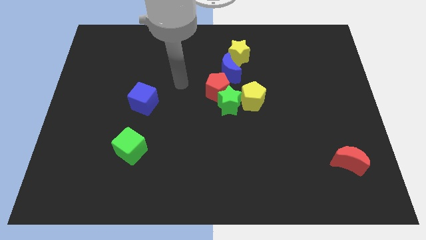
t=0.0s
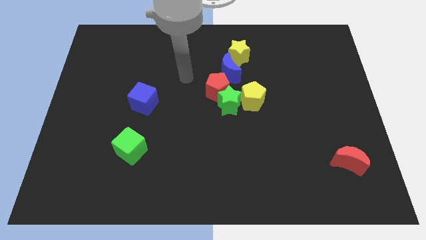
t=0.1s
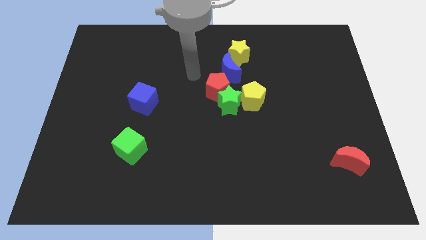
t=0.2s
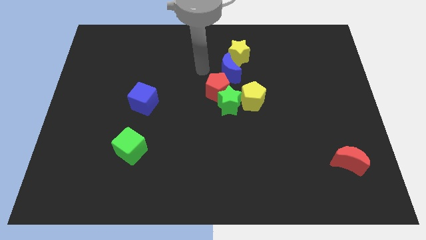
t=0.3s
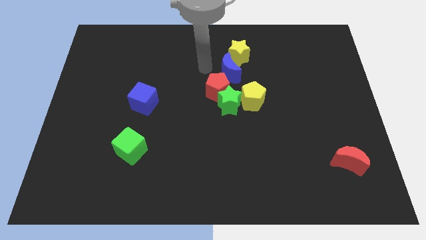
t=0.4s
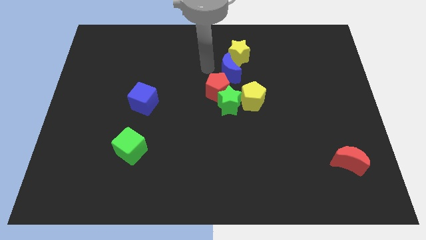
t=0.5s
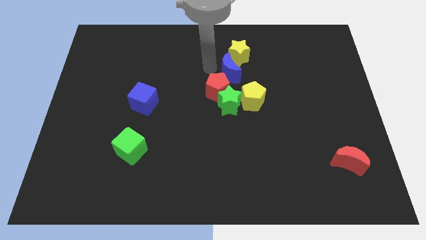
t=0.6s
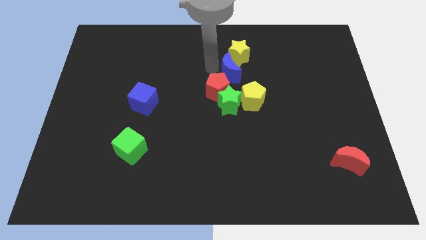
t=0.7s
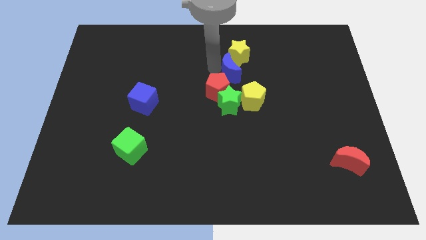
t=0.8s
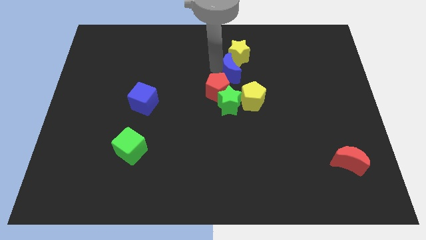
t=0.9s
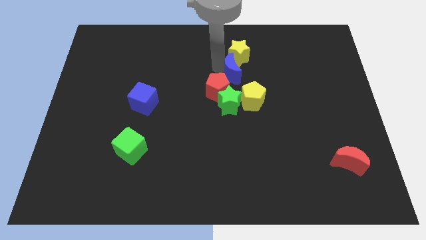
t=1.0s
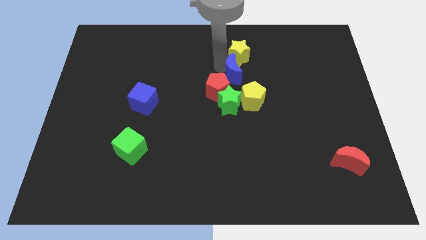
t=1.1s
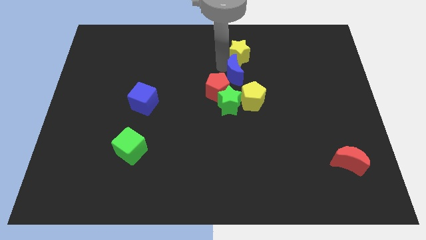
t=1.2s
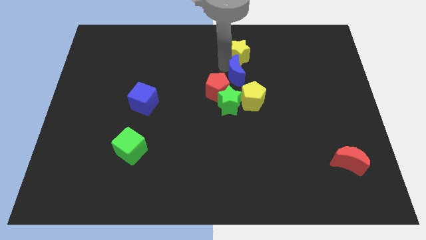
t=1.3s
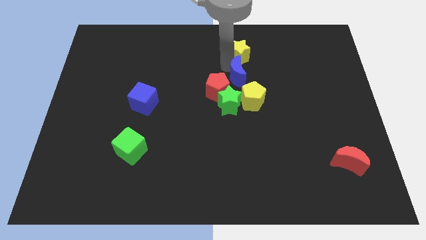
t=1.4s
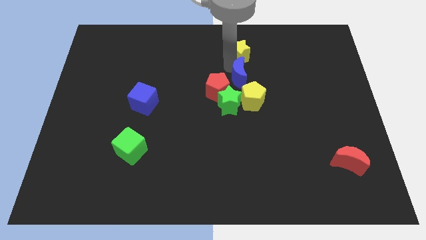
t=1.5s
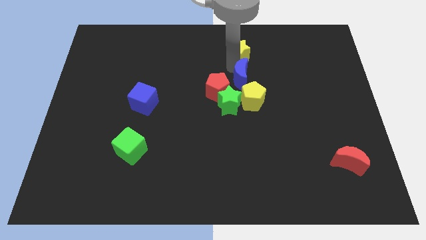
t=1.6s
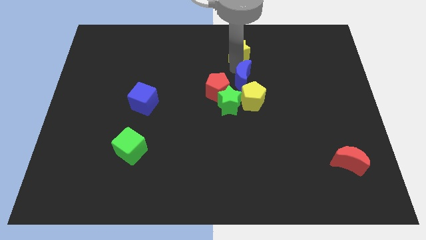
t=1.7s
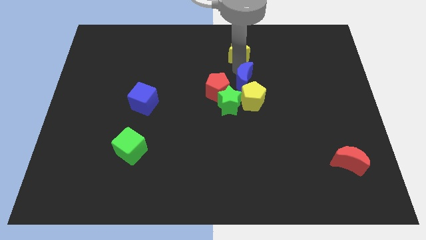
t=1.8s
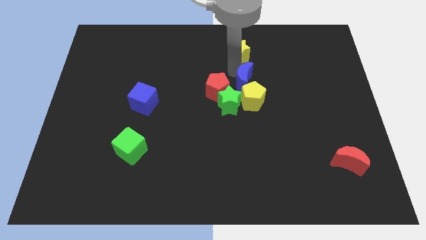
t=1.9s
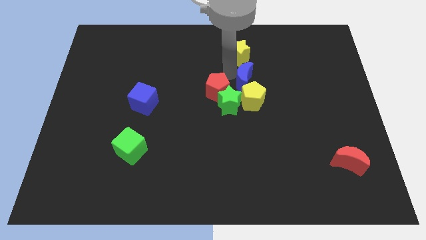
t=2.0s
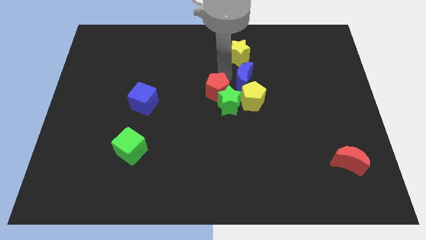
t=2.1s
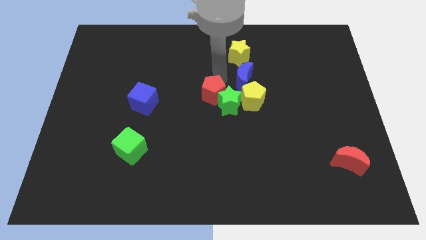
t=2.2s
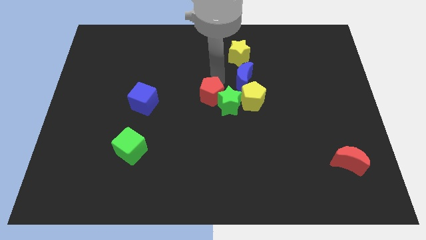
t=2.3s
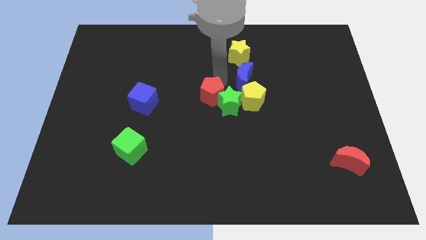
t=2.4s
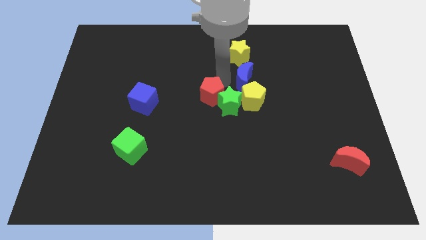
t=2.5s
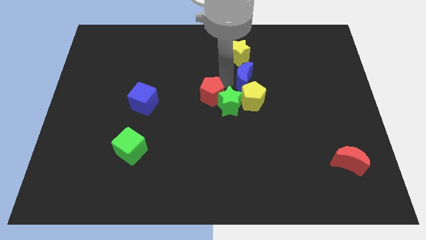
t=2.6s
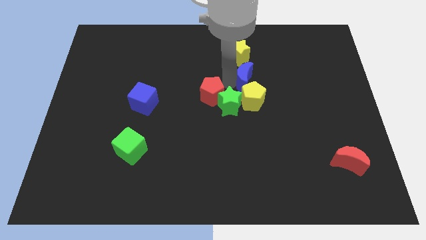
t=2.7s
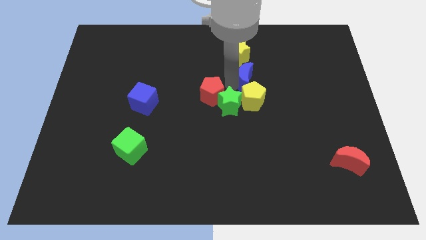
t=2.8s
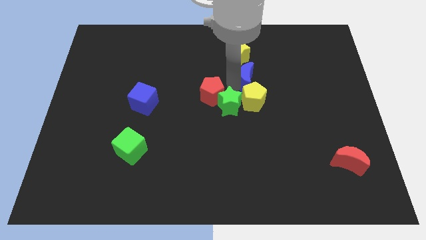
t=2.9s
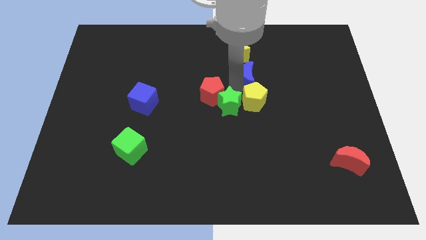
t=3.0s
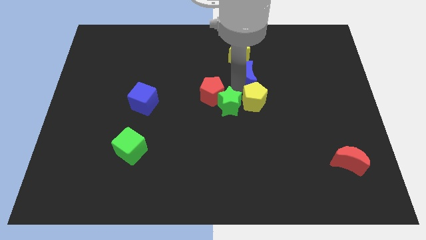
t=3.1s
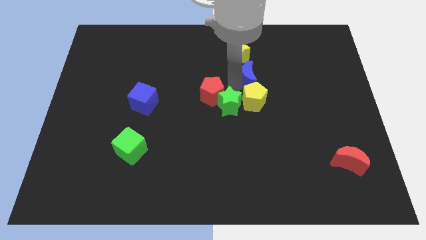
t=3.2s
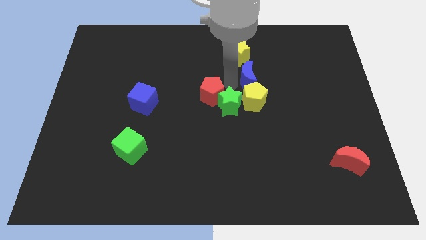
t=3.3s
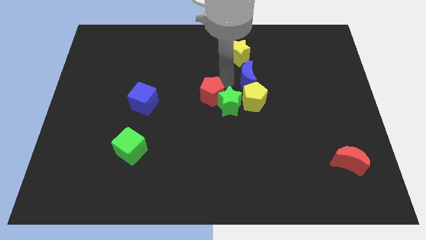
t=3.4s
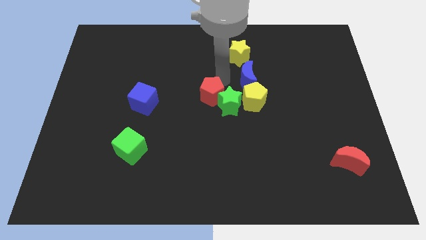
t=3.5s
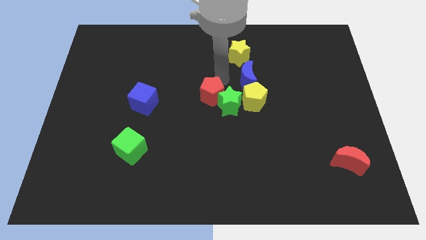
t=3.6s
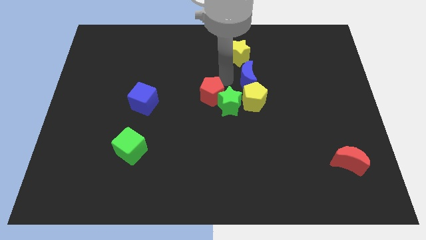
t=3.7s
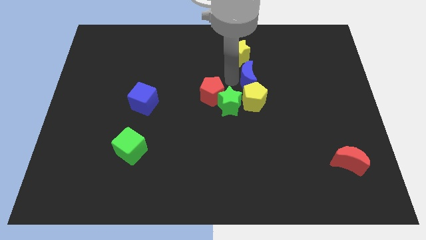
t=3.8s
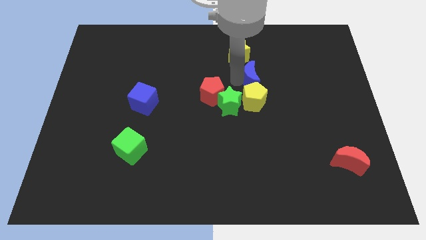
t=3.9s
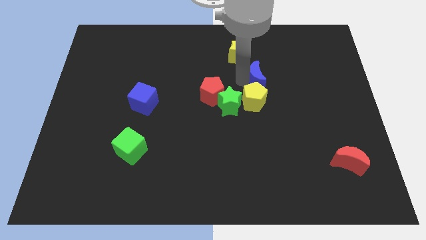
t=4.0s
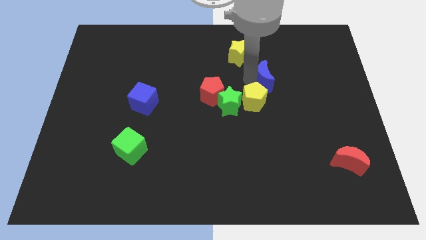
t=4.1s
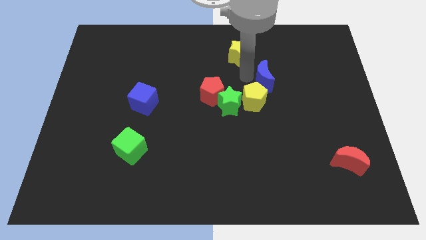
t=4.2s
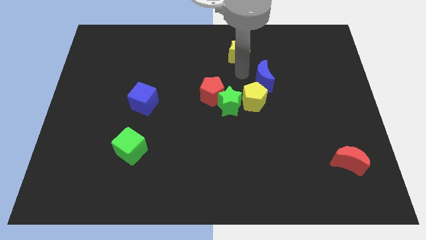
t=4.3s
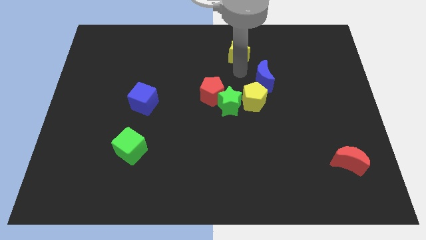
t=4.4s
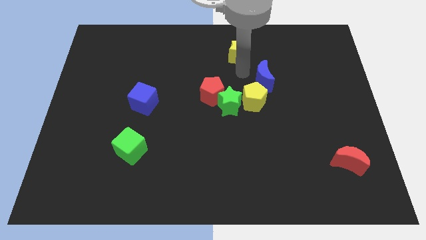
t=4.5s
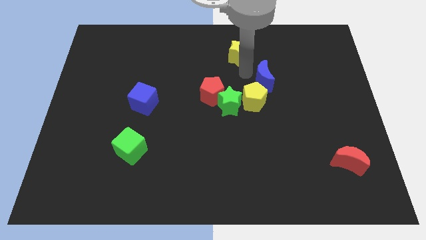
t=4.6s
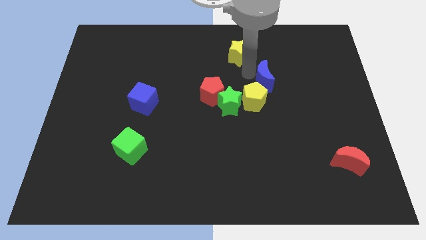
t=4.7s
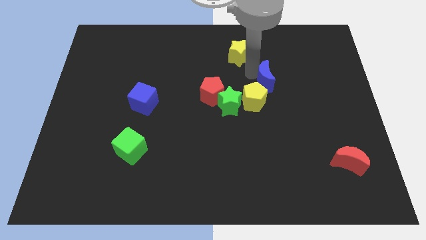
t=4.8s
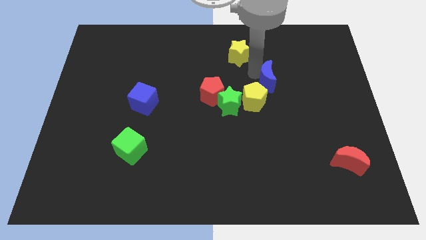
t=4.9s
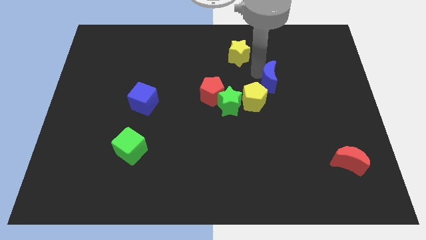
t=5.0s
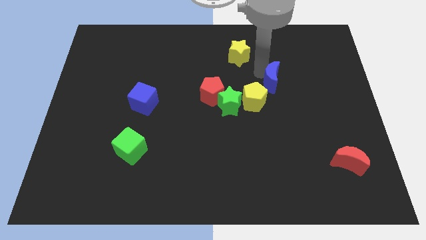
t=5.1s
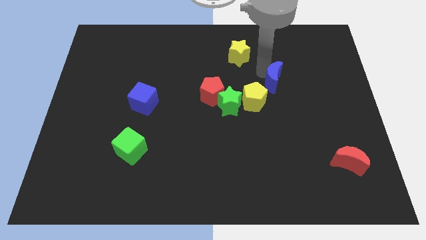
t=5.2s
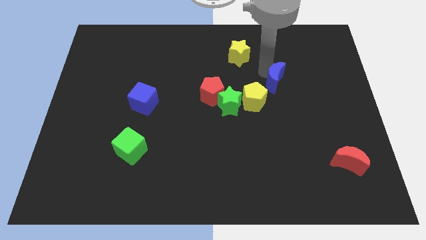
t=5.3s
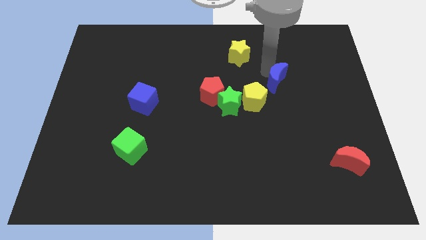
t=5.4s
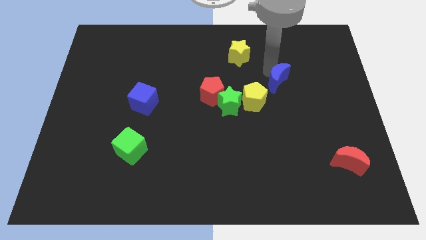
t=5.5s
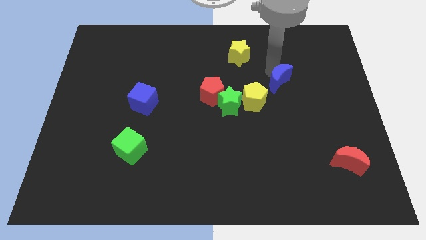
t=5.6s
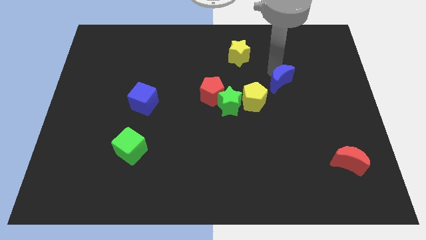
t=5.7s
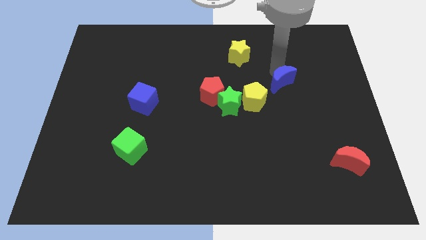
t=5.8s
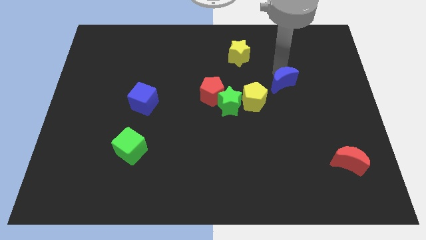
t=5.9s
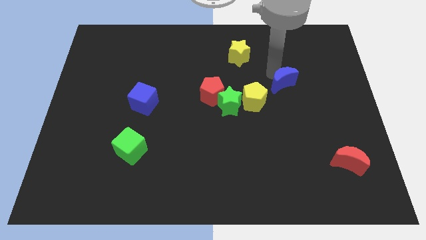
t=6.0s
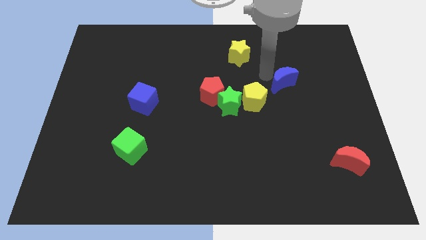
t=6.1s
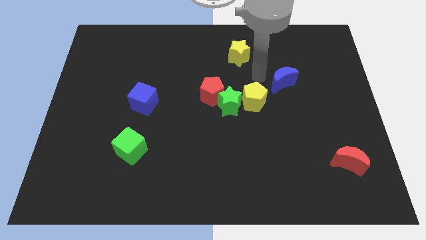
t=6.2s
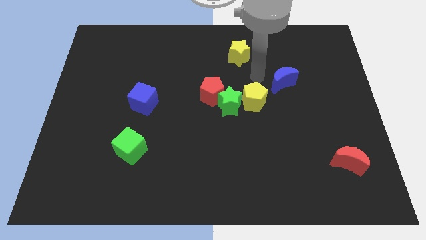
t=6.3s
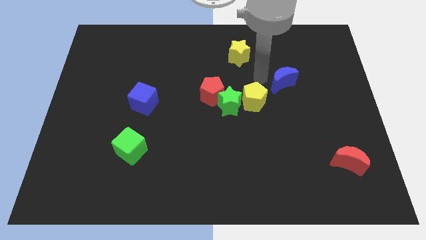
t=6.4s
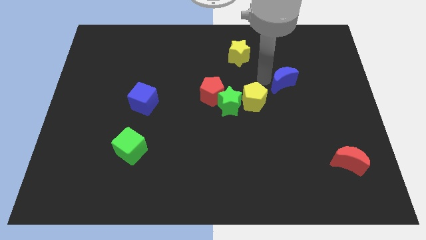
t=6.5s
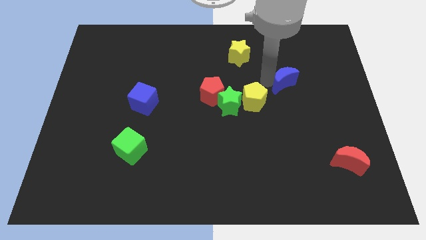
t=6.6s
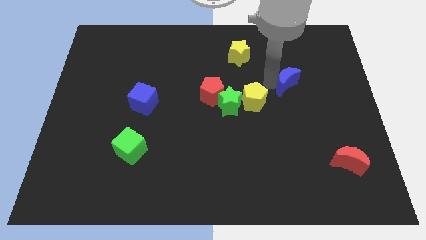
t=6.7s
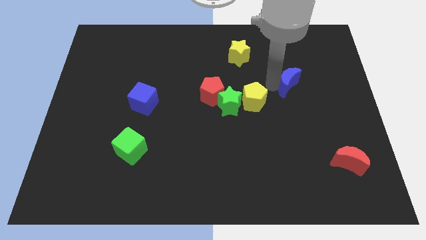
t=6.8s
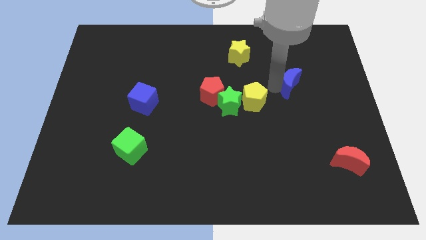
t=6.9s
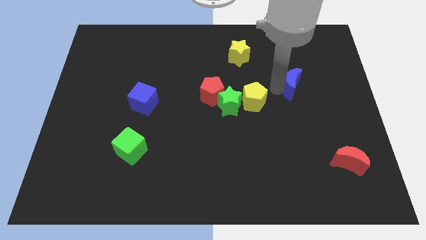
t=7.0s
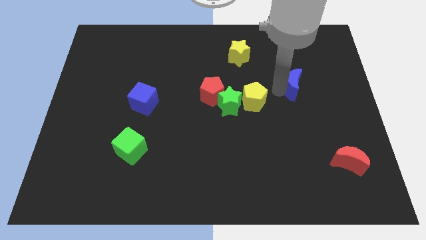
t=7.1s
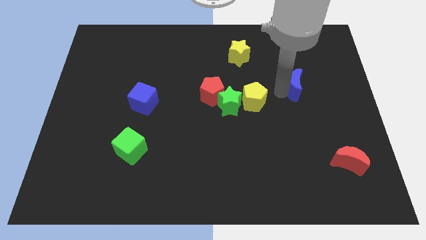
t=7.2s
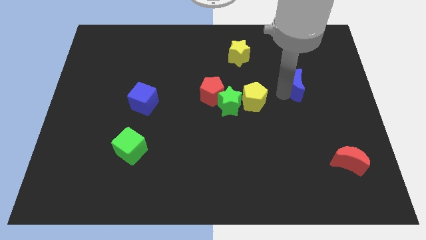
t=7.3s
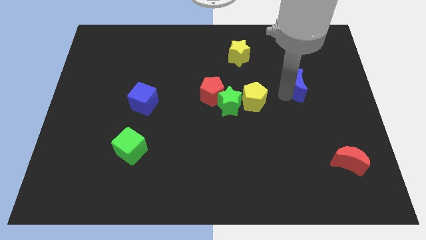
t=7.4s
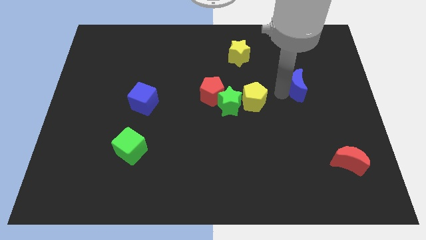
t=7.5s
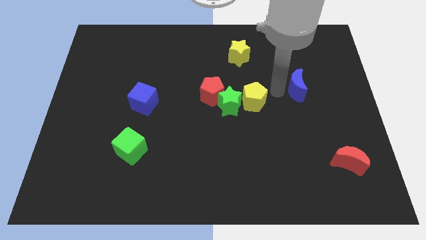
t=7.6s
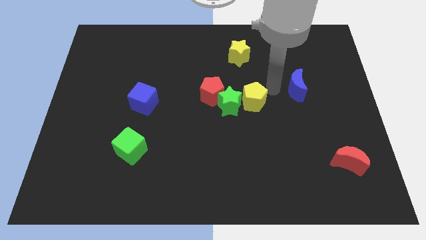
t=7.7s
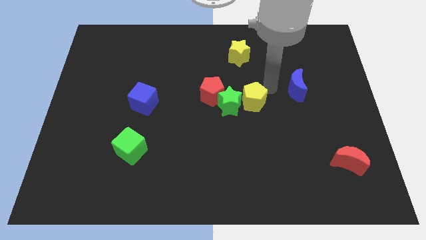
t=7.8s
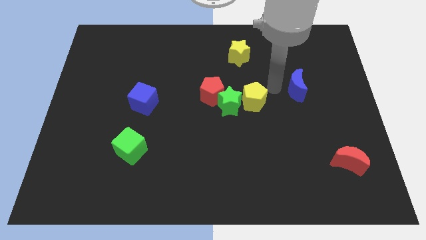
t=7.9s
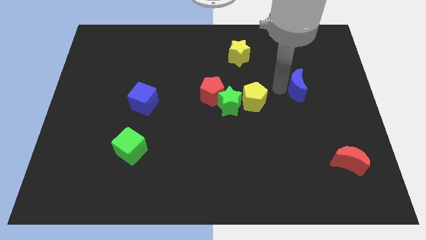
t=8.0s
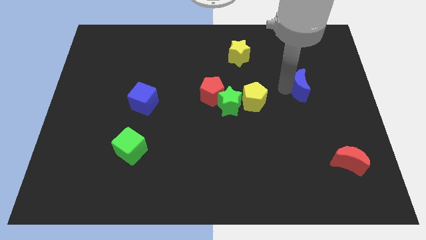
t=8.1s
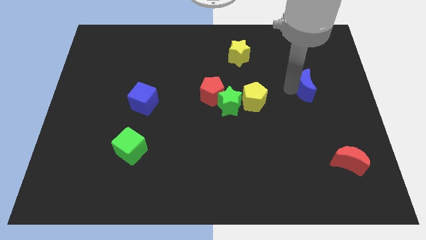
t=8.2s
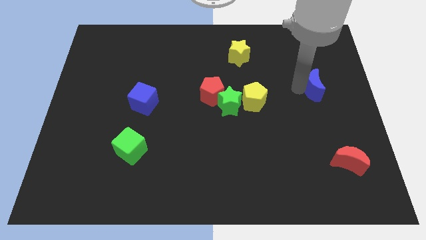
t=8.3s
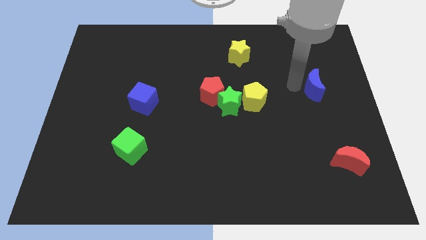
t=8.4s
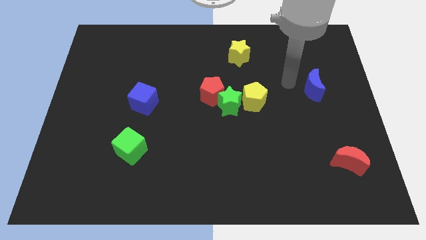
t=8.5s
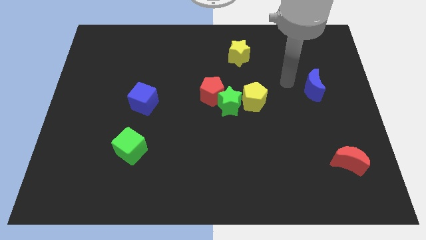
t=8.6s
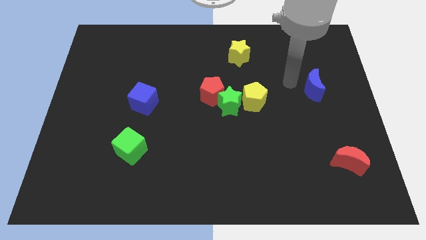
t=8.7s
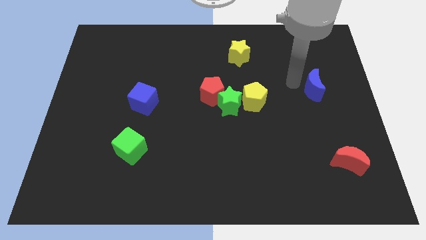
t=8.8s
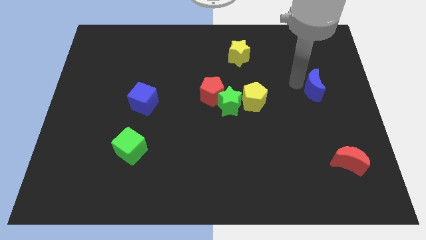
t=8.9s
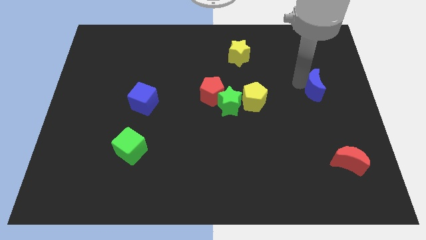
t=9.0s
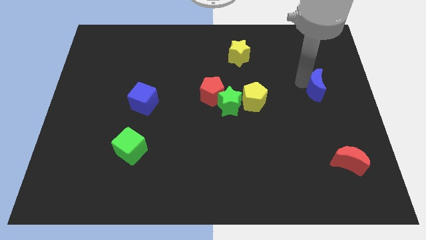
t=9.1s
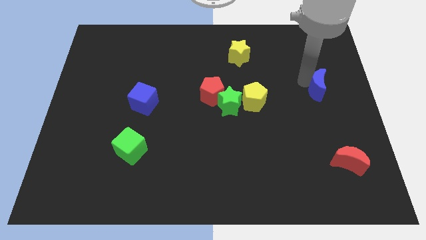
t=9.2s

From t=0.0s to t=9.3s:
move the blue moon to the center right
